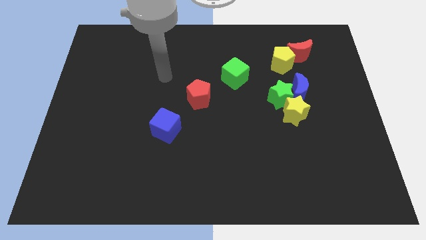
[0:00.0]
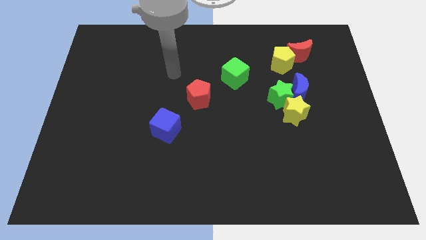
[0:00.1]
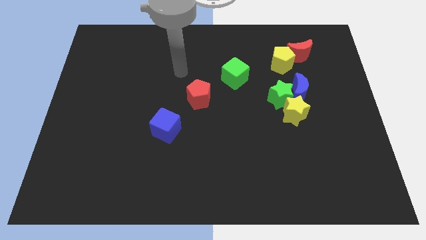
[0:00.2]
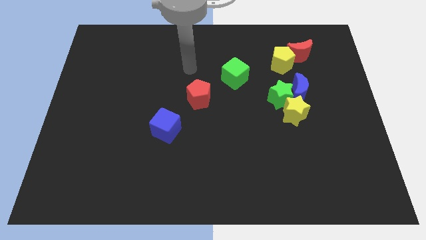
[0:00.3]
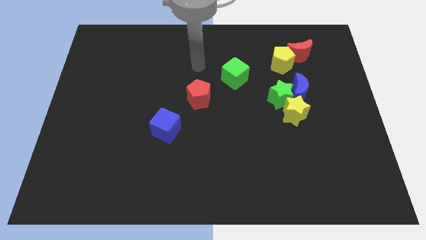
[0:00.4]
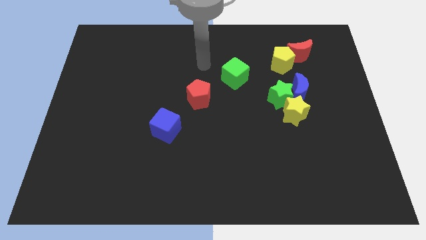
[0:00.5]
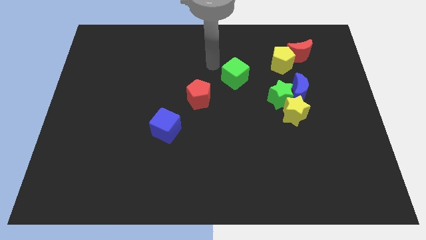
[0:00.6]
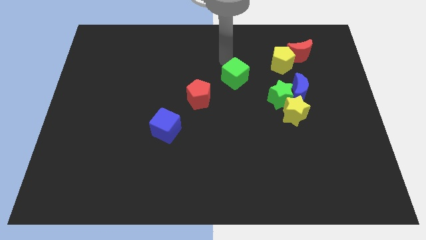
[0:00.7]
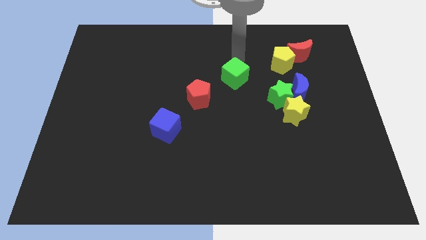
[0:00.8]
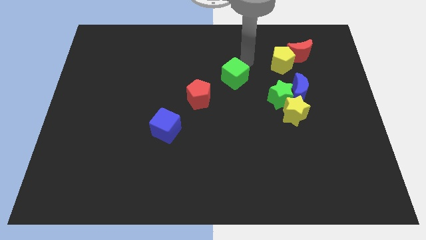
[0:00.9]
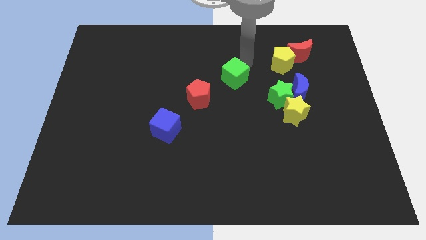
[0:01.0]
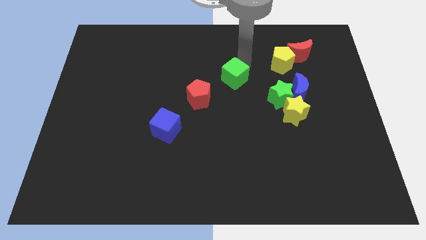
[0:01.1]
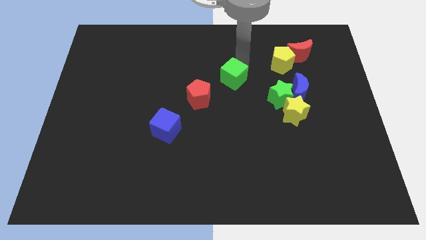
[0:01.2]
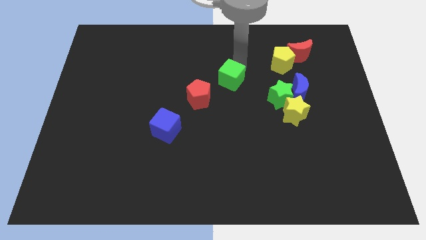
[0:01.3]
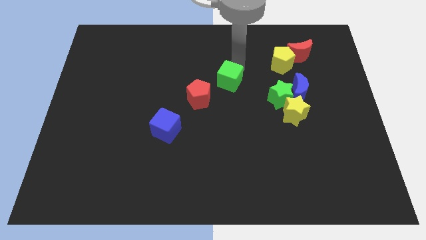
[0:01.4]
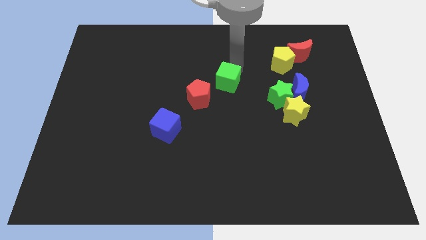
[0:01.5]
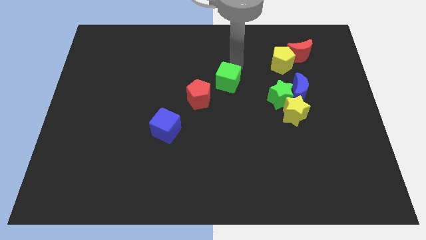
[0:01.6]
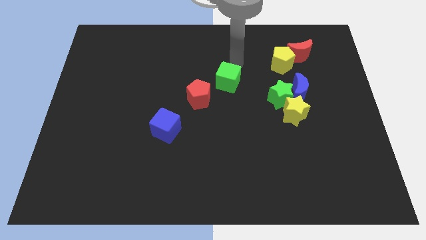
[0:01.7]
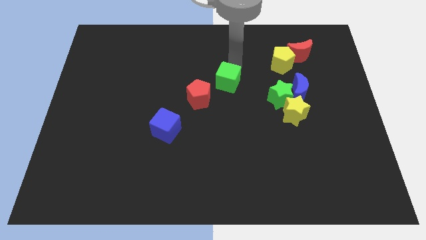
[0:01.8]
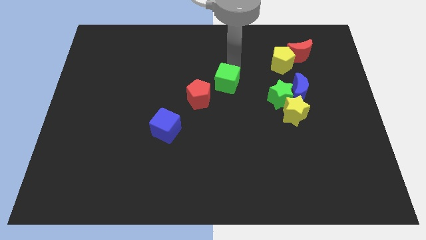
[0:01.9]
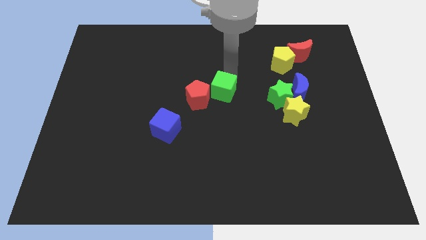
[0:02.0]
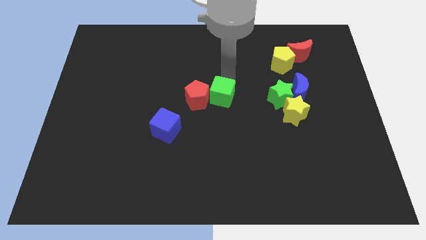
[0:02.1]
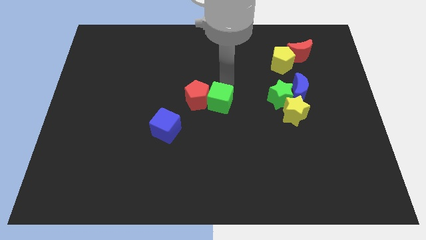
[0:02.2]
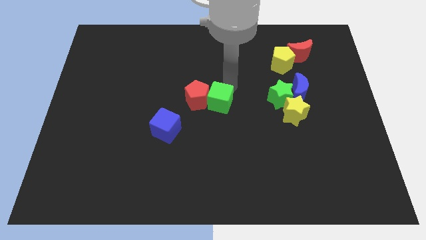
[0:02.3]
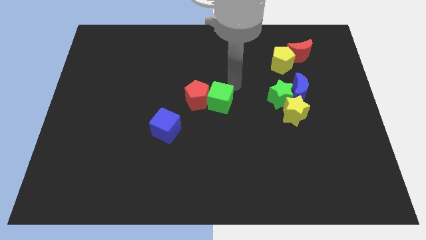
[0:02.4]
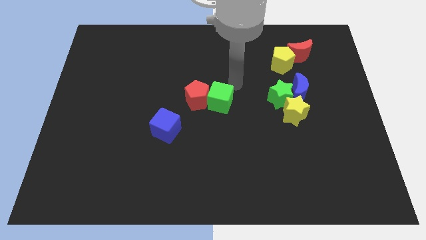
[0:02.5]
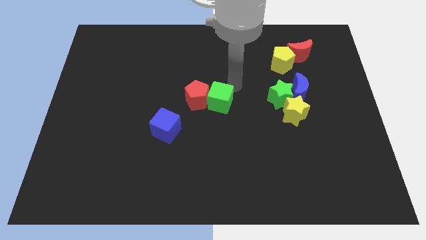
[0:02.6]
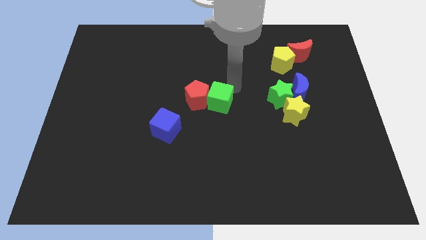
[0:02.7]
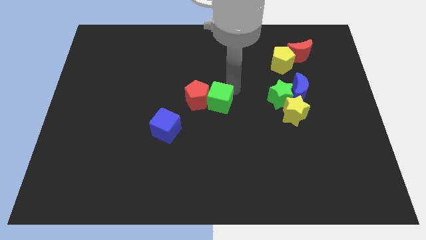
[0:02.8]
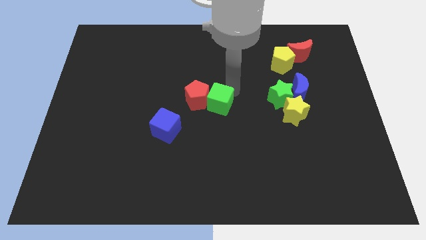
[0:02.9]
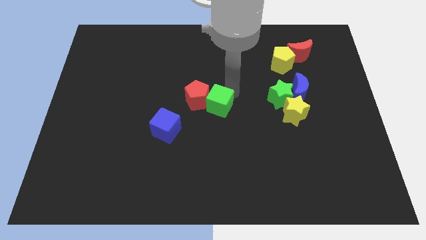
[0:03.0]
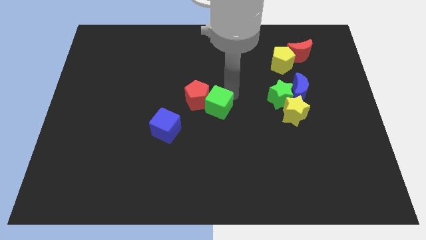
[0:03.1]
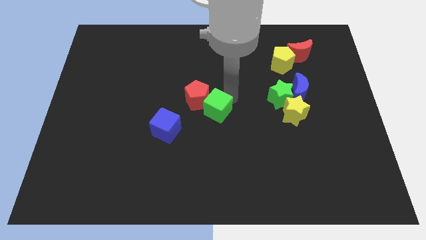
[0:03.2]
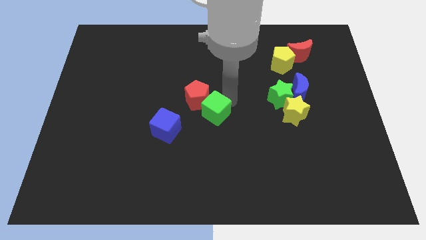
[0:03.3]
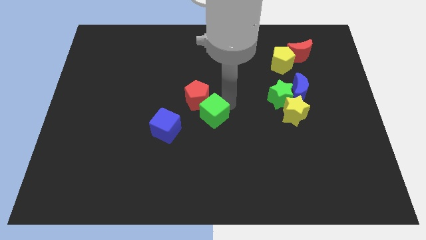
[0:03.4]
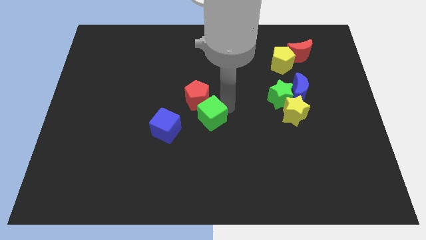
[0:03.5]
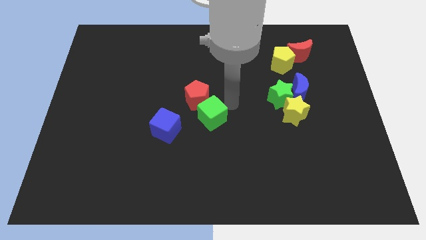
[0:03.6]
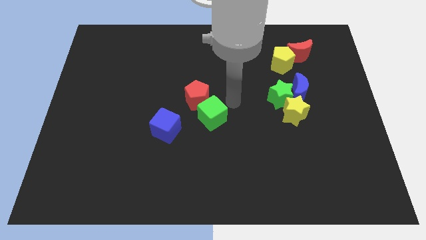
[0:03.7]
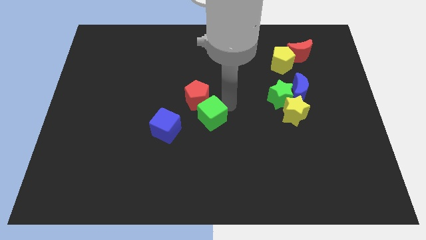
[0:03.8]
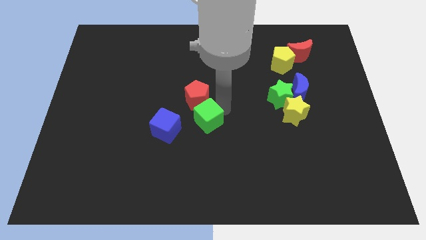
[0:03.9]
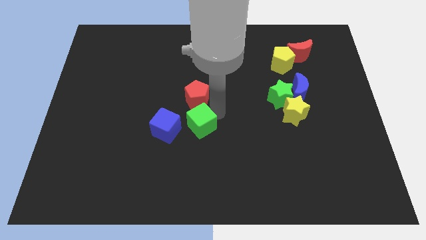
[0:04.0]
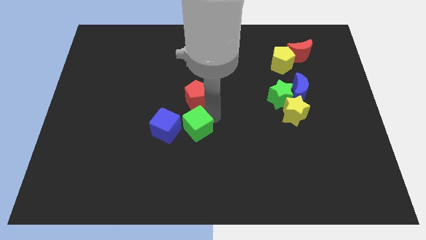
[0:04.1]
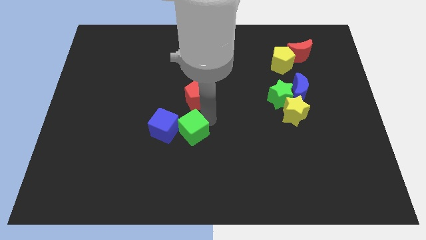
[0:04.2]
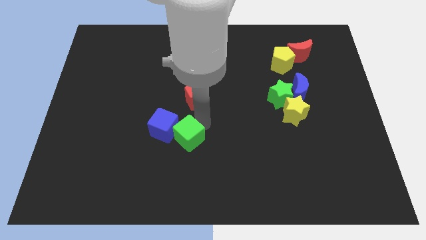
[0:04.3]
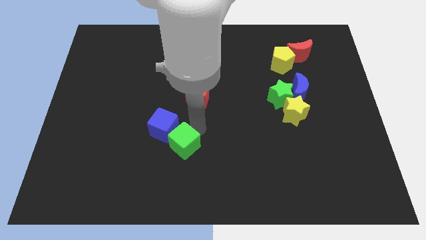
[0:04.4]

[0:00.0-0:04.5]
slide the green cube downwards and to the left

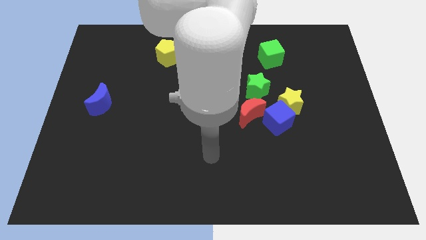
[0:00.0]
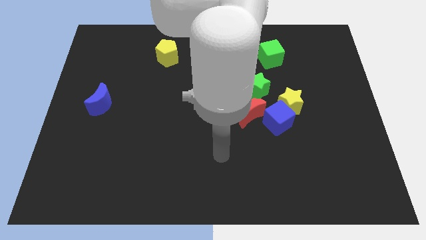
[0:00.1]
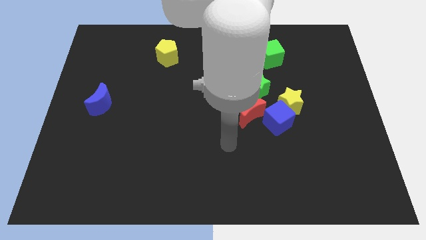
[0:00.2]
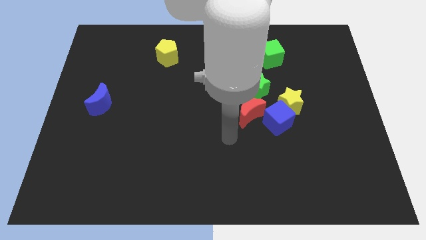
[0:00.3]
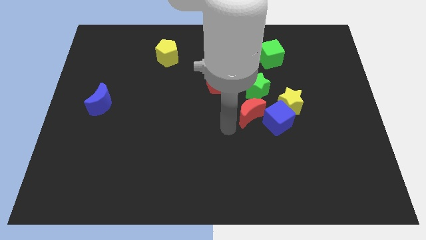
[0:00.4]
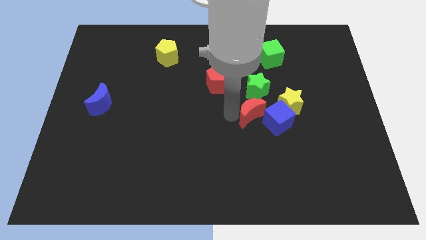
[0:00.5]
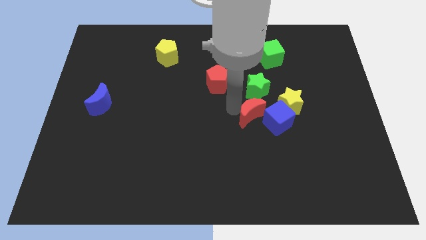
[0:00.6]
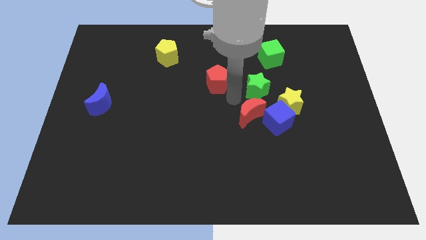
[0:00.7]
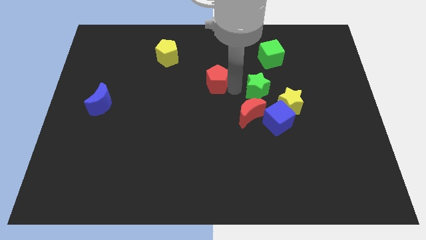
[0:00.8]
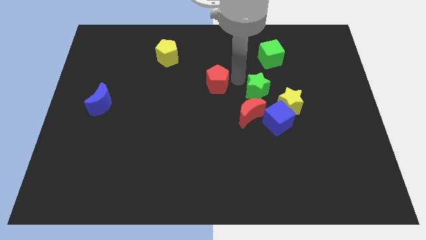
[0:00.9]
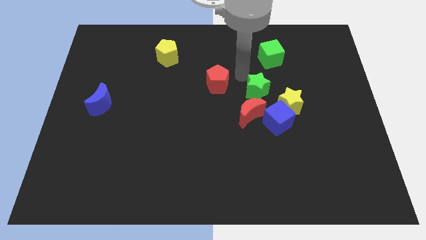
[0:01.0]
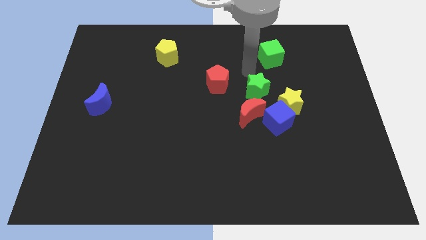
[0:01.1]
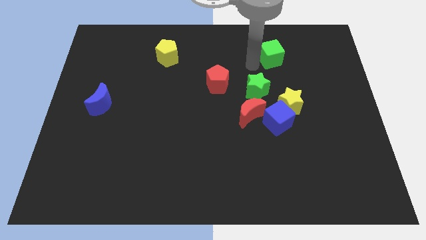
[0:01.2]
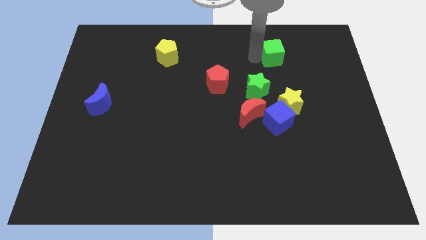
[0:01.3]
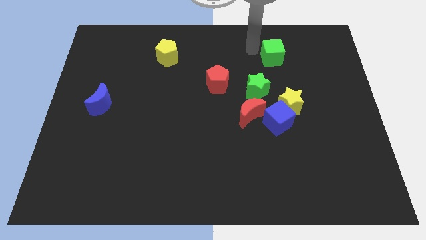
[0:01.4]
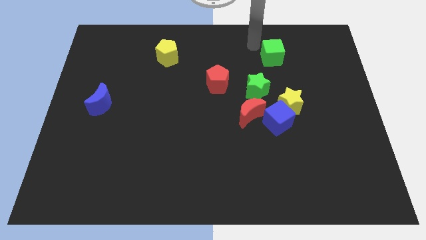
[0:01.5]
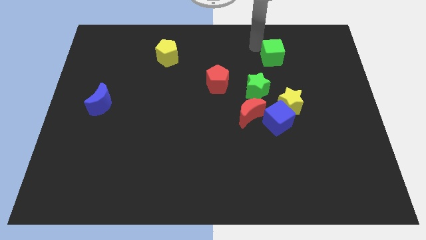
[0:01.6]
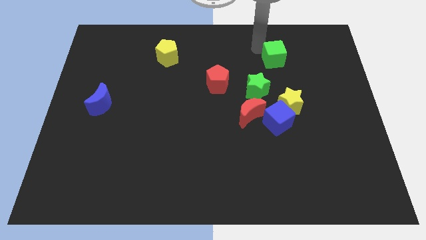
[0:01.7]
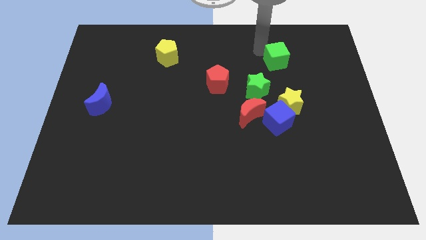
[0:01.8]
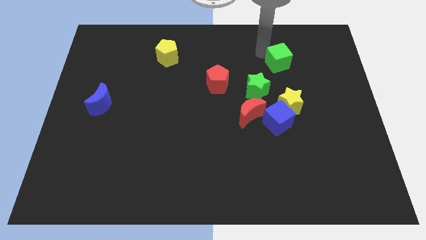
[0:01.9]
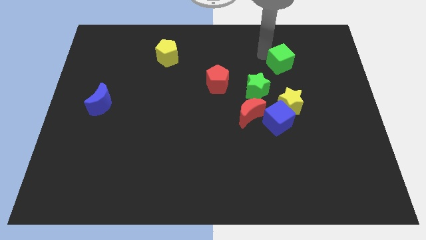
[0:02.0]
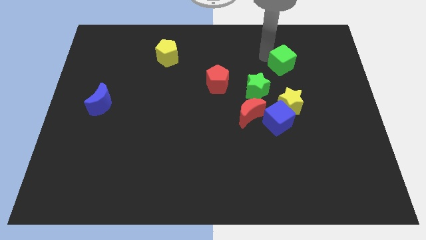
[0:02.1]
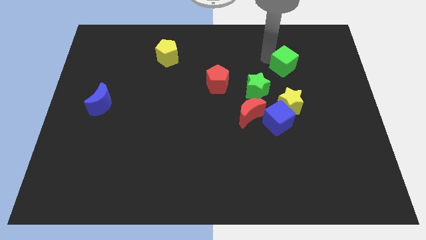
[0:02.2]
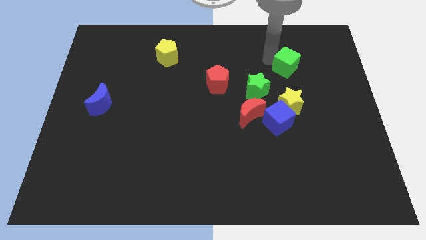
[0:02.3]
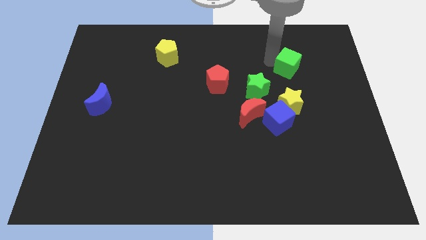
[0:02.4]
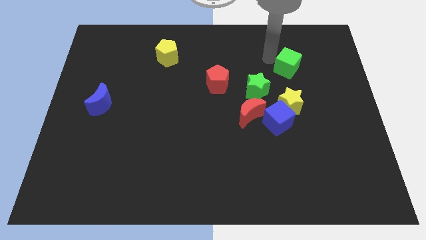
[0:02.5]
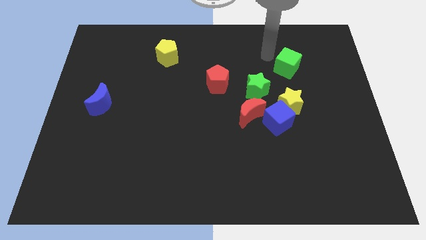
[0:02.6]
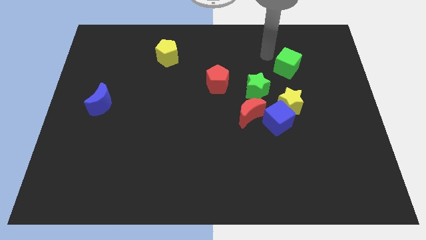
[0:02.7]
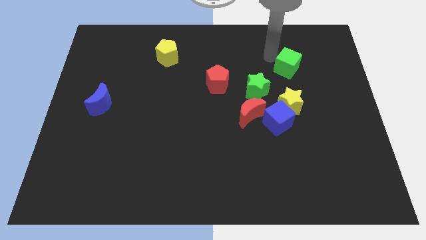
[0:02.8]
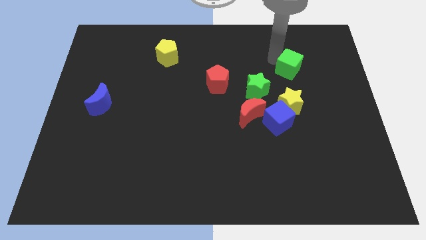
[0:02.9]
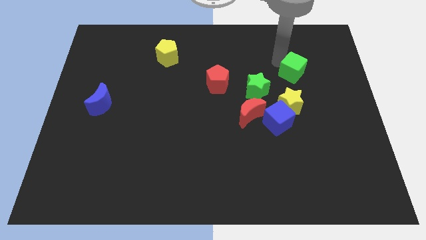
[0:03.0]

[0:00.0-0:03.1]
move the green cube somewhat down and right diagonally
